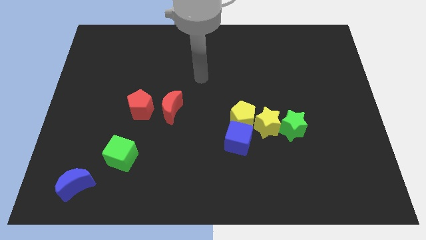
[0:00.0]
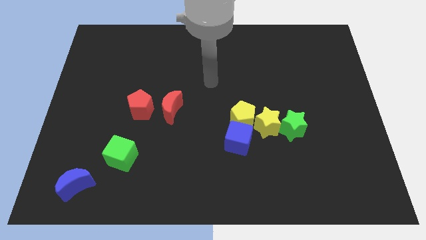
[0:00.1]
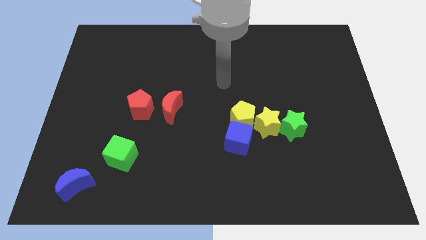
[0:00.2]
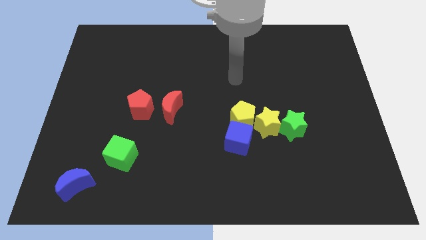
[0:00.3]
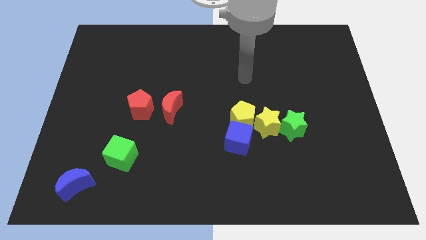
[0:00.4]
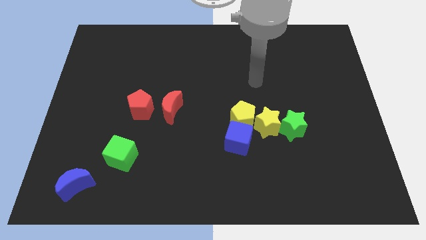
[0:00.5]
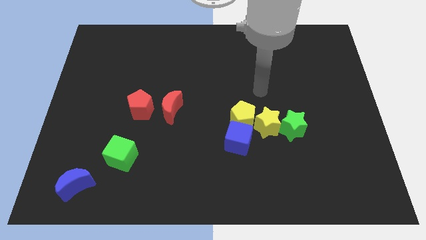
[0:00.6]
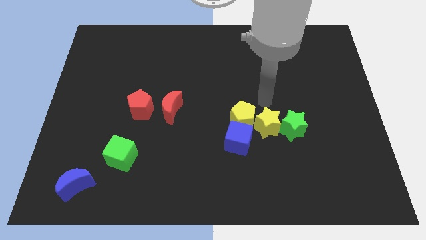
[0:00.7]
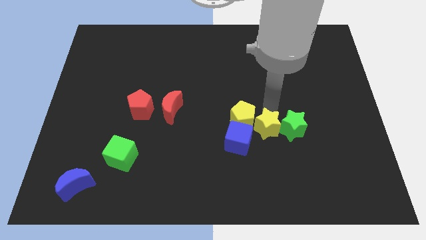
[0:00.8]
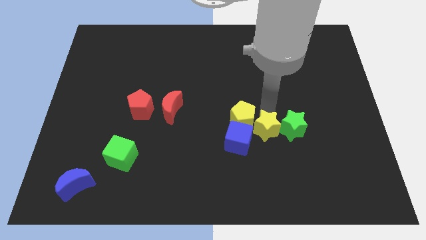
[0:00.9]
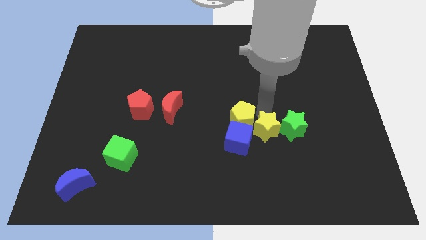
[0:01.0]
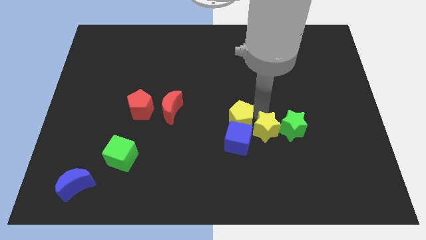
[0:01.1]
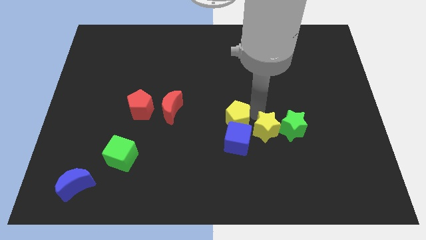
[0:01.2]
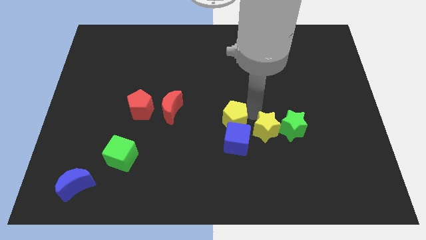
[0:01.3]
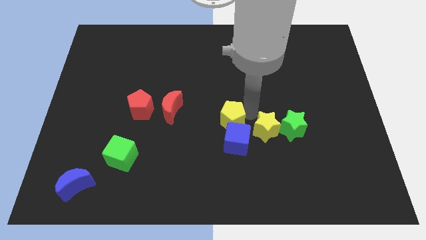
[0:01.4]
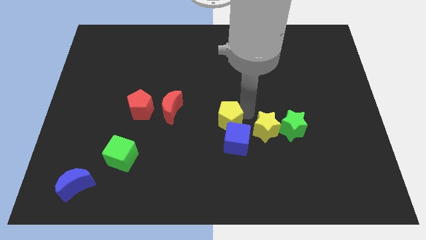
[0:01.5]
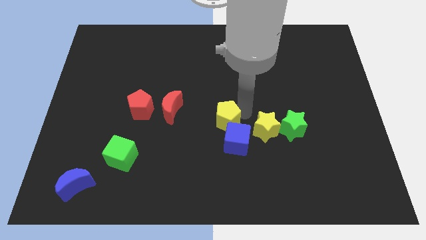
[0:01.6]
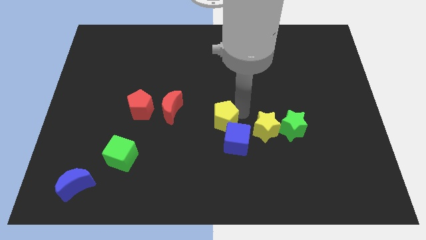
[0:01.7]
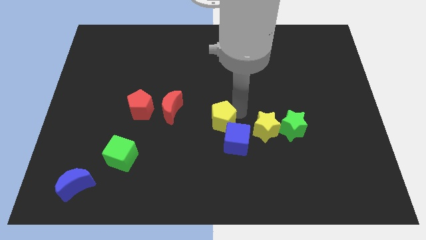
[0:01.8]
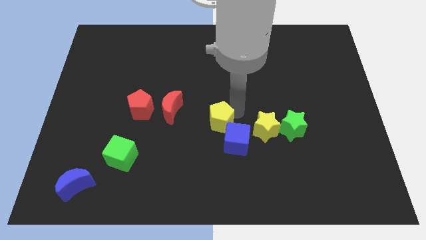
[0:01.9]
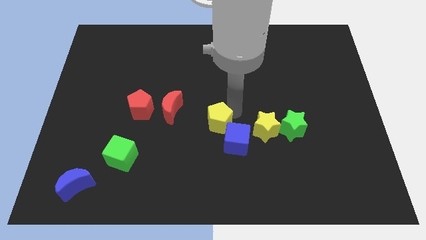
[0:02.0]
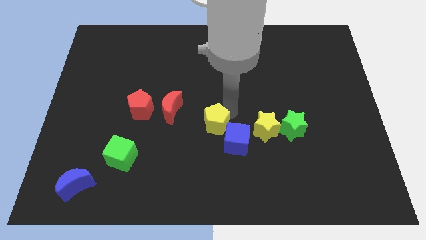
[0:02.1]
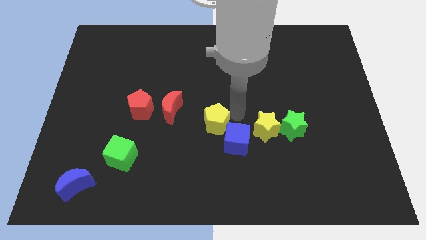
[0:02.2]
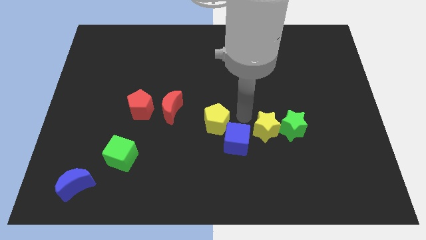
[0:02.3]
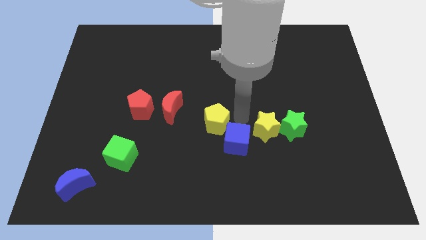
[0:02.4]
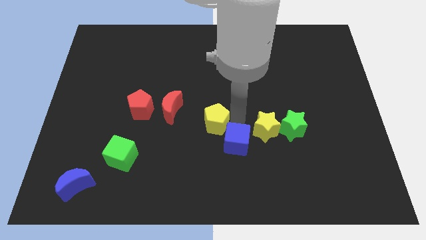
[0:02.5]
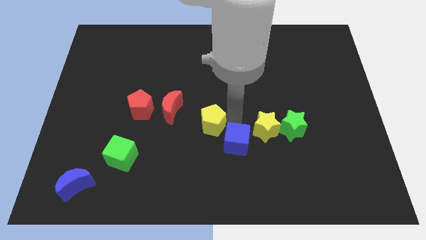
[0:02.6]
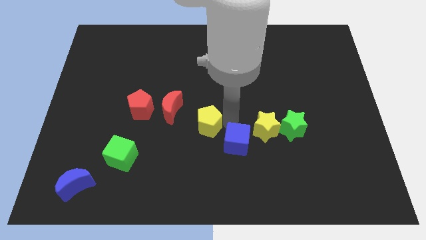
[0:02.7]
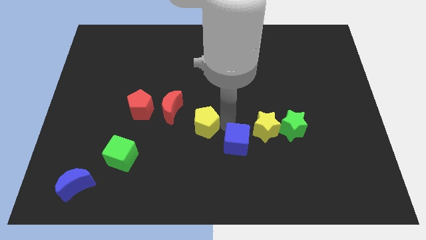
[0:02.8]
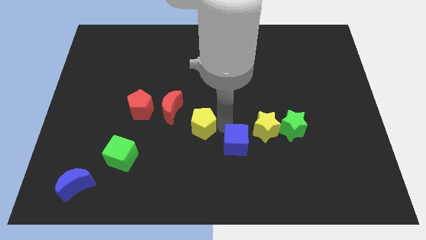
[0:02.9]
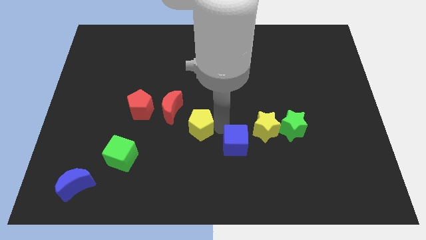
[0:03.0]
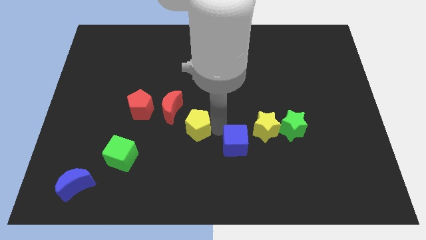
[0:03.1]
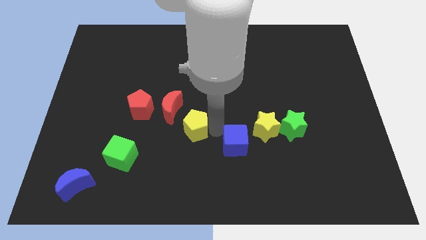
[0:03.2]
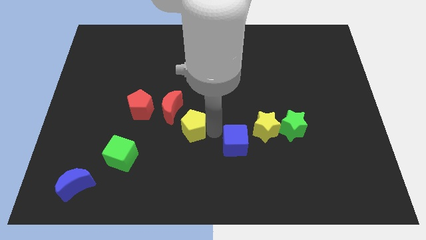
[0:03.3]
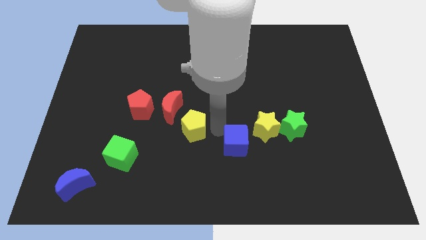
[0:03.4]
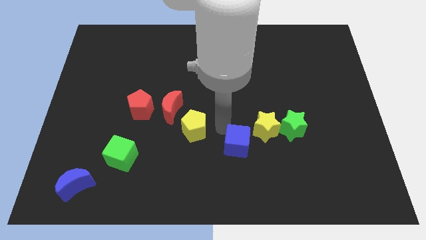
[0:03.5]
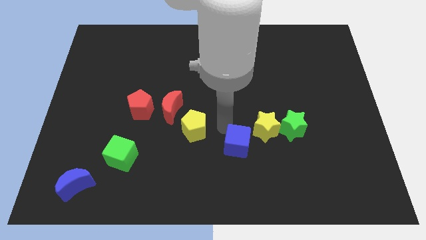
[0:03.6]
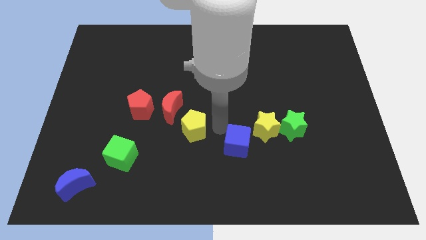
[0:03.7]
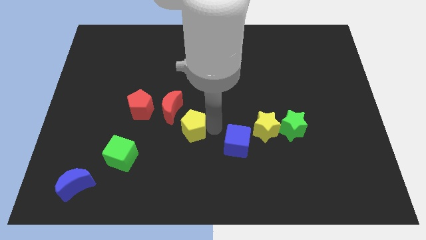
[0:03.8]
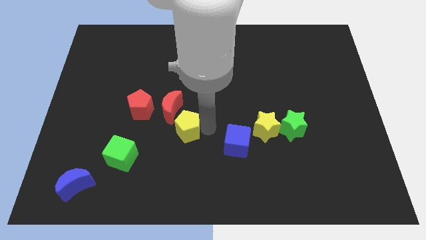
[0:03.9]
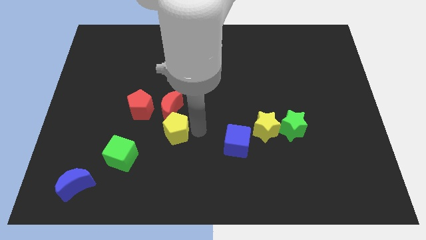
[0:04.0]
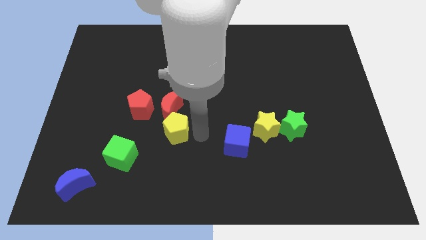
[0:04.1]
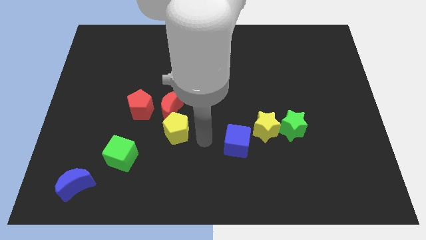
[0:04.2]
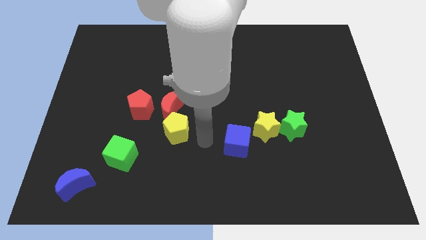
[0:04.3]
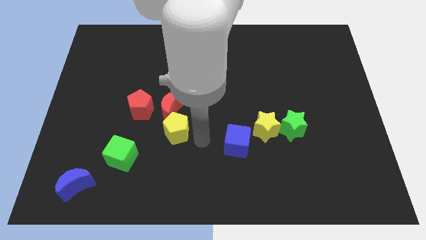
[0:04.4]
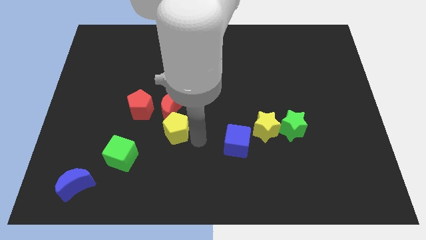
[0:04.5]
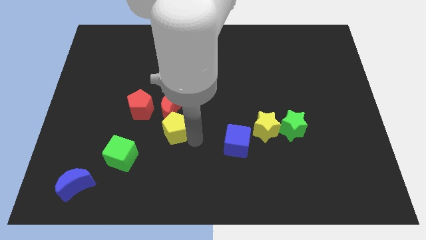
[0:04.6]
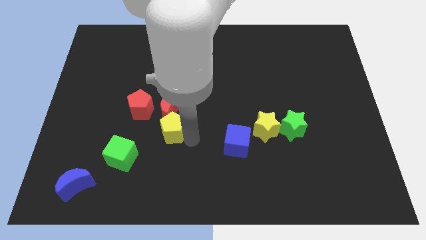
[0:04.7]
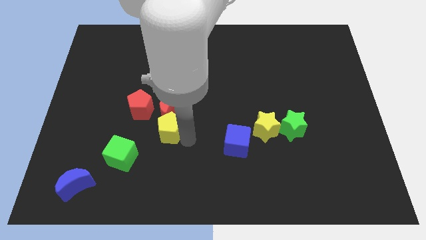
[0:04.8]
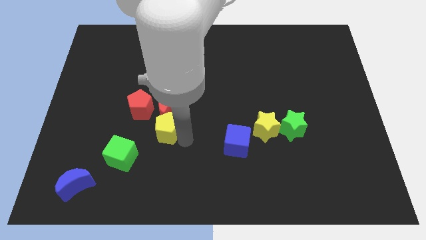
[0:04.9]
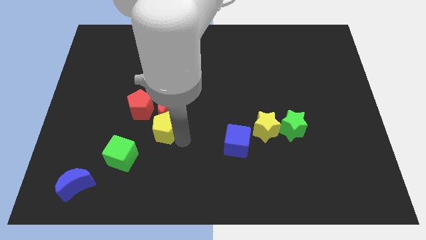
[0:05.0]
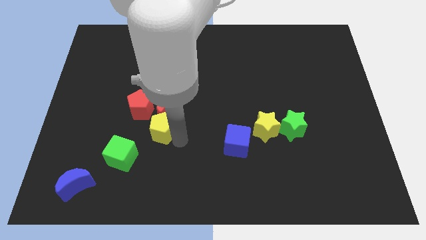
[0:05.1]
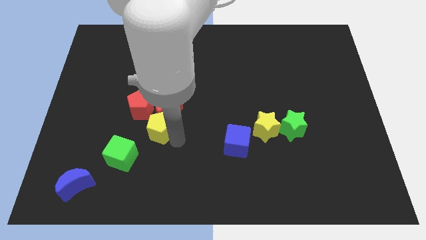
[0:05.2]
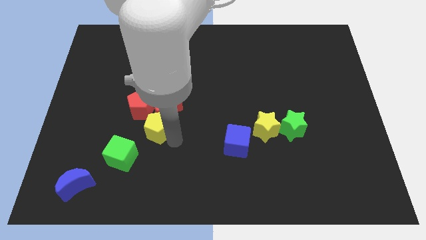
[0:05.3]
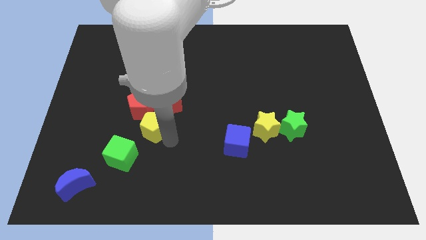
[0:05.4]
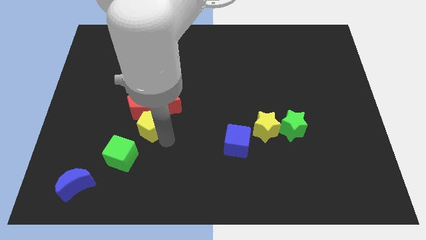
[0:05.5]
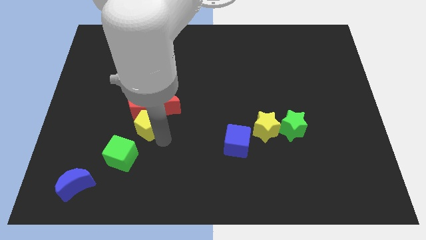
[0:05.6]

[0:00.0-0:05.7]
push the yellow pentagon next to the red pentagon

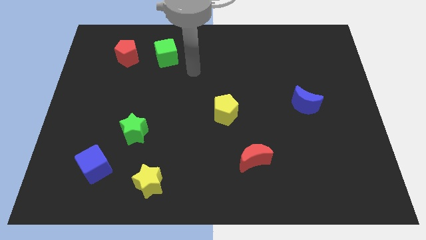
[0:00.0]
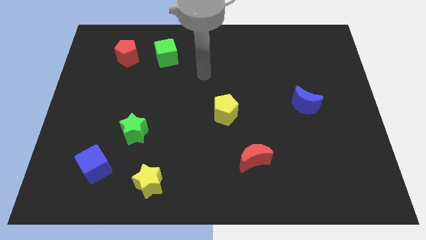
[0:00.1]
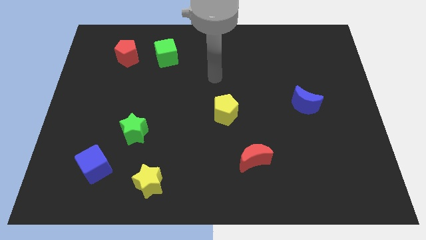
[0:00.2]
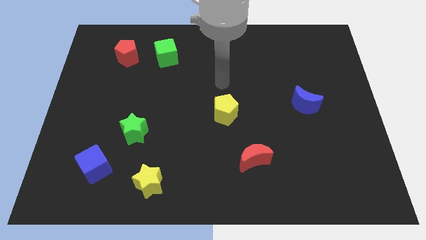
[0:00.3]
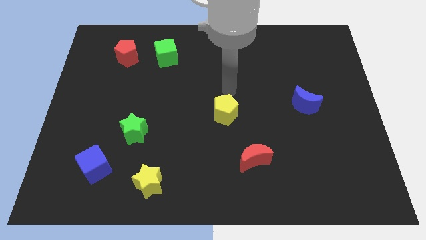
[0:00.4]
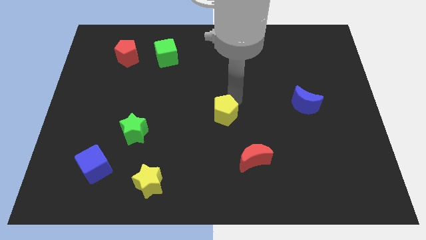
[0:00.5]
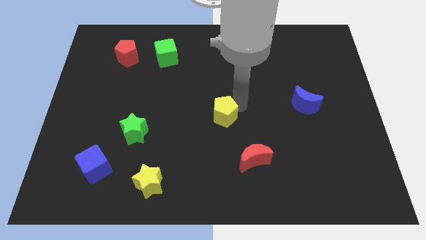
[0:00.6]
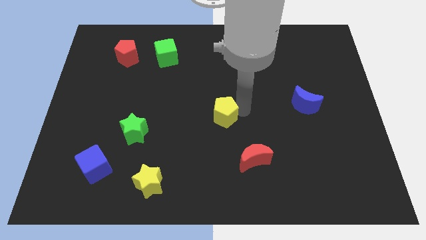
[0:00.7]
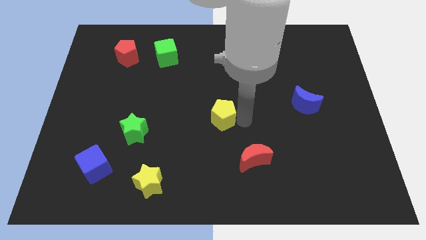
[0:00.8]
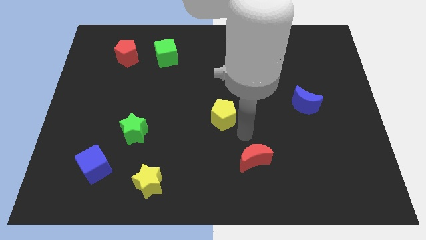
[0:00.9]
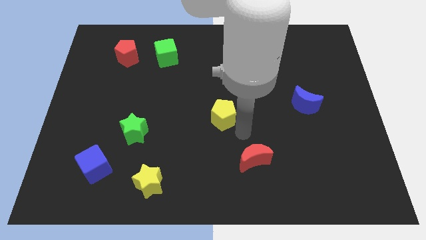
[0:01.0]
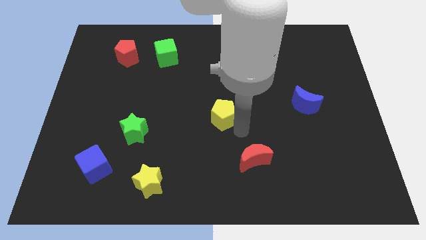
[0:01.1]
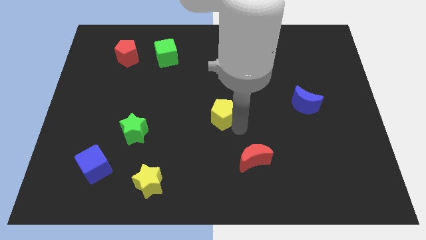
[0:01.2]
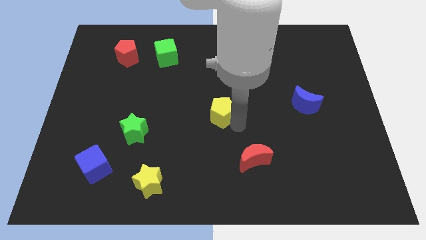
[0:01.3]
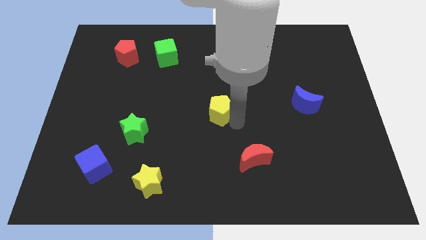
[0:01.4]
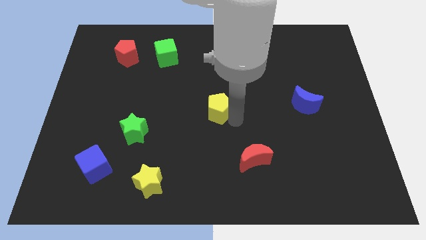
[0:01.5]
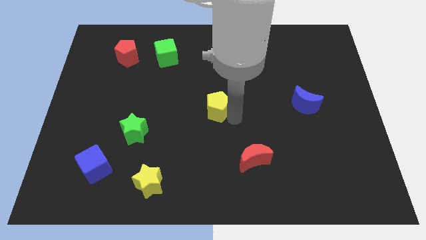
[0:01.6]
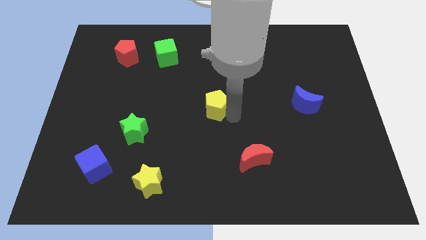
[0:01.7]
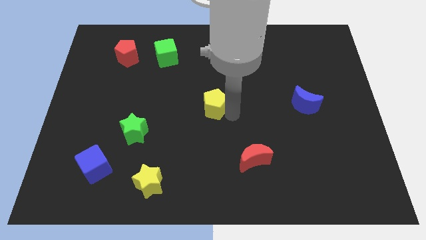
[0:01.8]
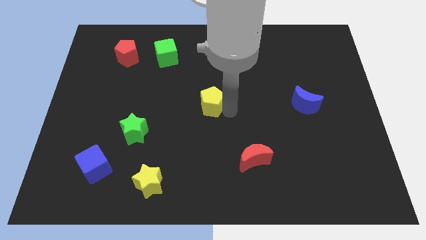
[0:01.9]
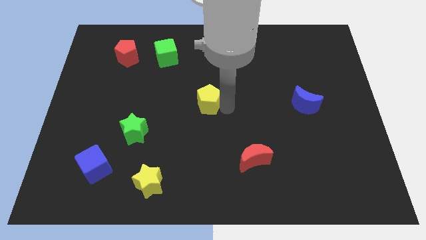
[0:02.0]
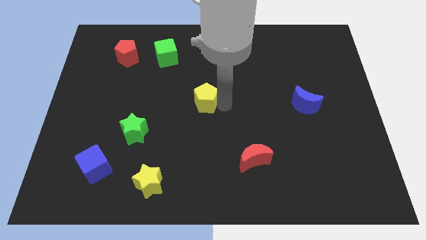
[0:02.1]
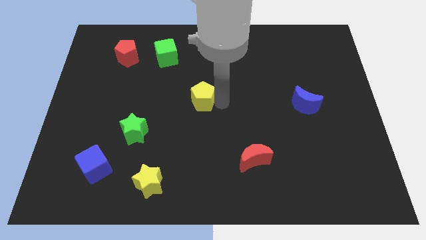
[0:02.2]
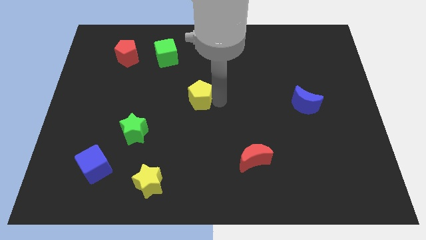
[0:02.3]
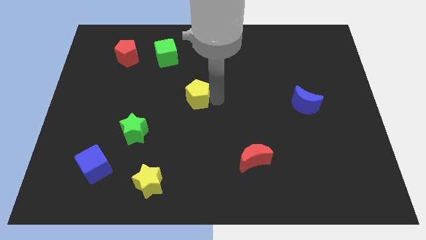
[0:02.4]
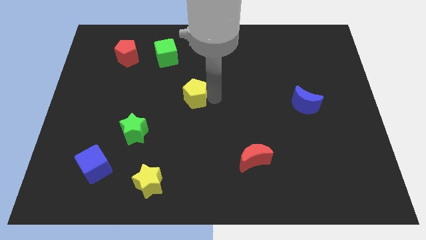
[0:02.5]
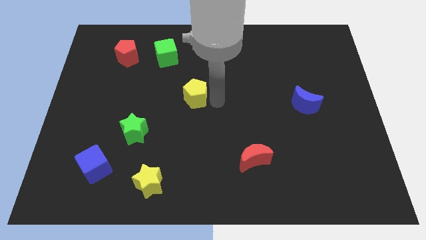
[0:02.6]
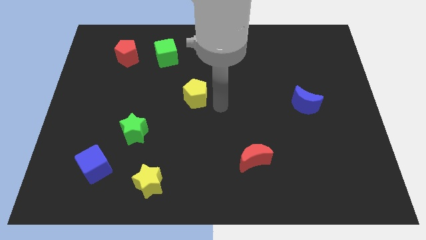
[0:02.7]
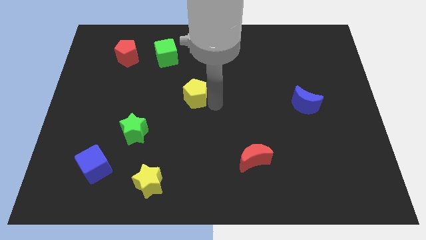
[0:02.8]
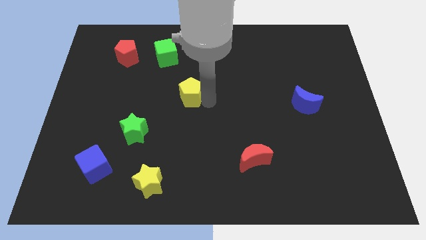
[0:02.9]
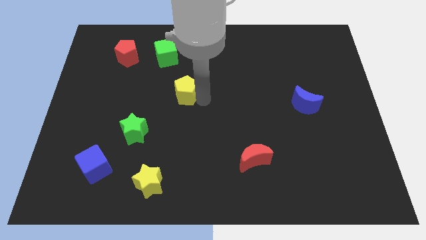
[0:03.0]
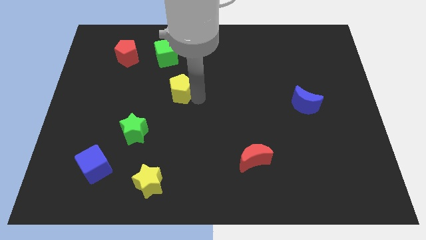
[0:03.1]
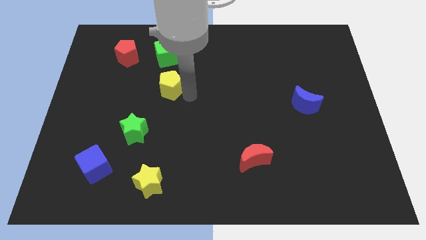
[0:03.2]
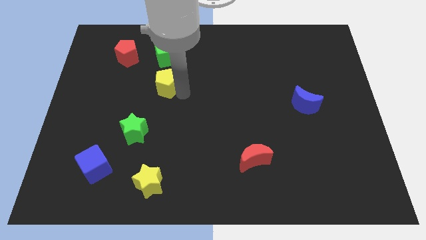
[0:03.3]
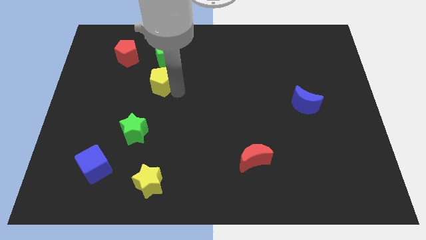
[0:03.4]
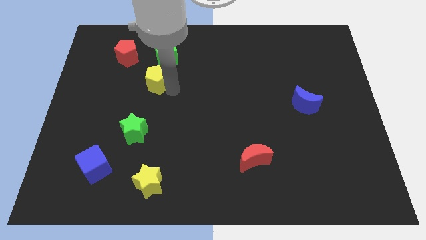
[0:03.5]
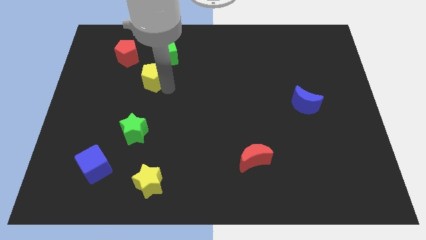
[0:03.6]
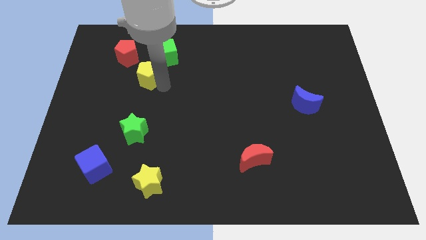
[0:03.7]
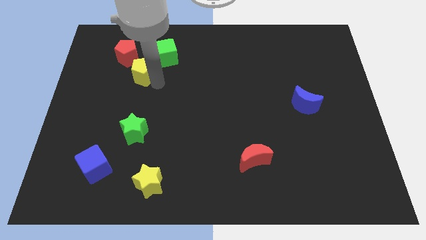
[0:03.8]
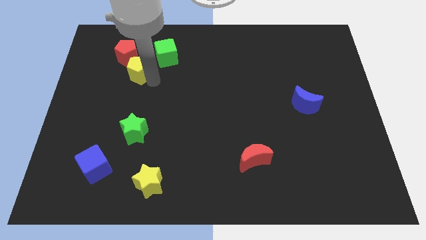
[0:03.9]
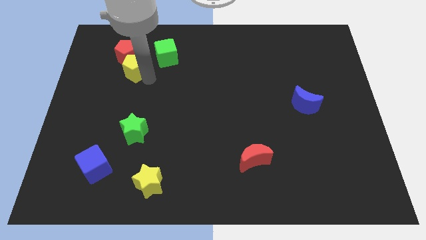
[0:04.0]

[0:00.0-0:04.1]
slide the yellow pentagon close to the red pentagon
